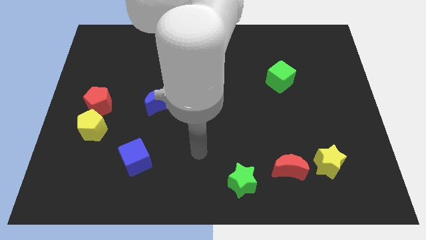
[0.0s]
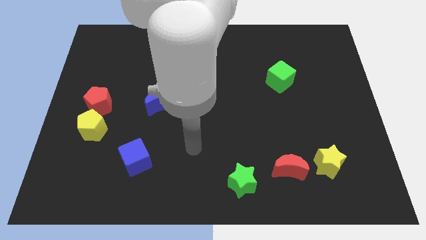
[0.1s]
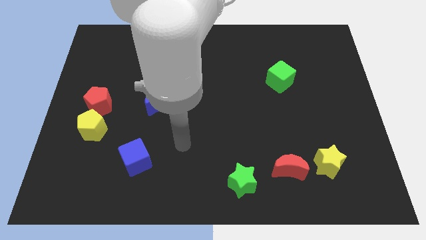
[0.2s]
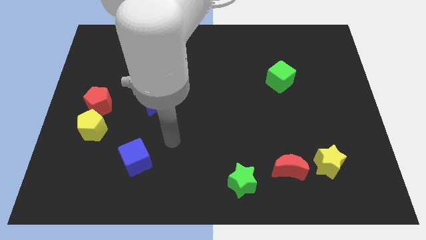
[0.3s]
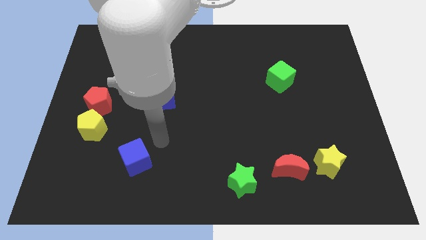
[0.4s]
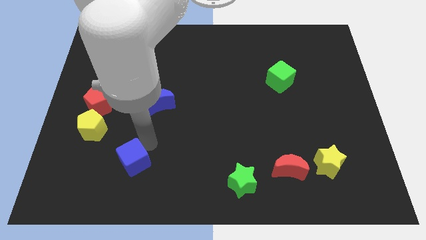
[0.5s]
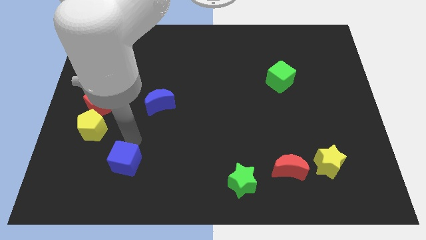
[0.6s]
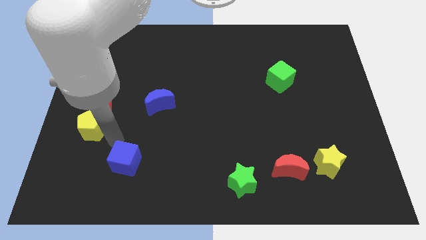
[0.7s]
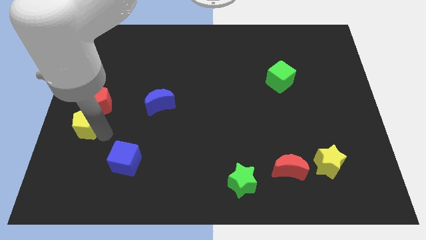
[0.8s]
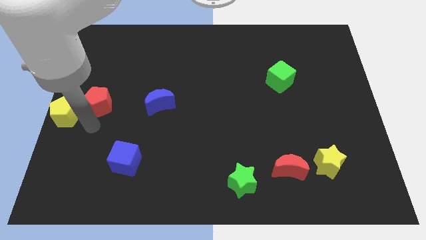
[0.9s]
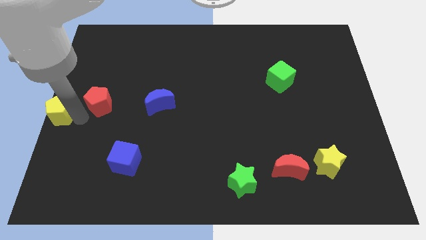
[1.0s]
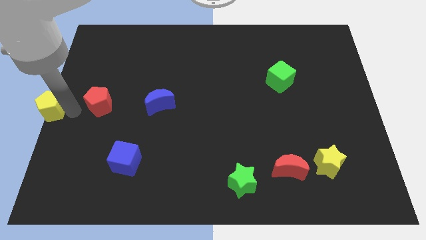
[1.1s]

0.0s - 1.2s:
move the red pentagon away from the yellow pentagon

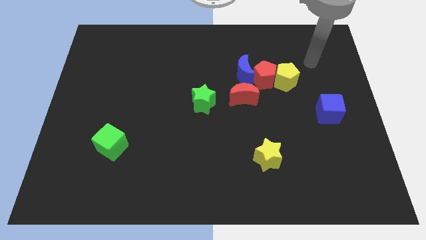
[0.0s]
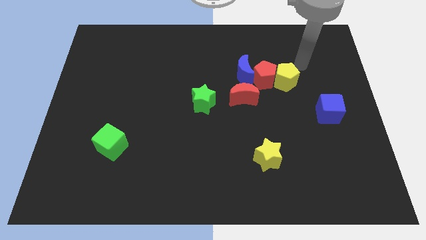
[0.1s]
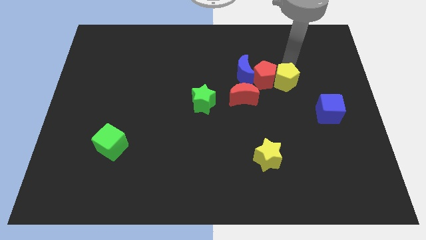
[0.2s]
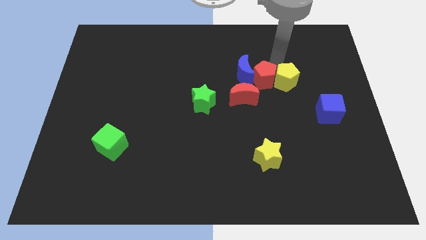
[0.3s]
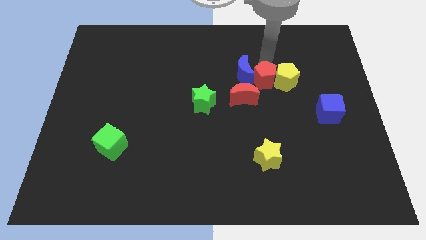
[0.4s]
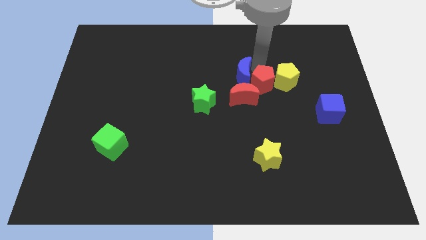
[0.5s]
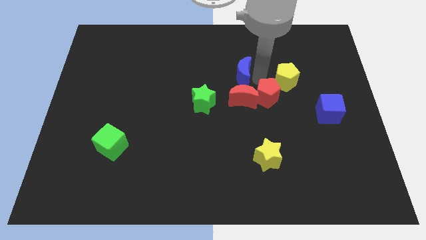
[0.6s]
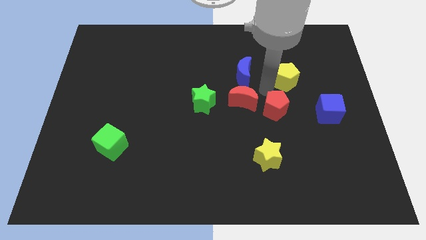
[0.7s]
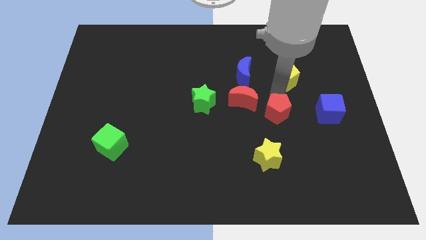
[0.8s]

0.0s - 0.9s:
separate the yellow pentagon from the red pentagon

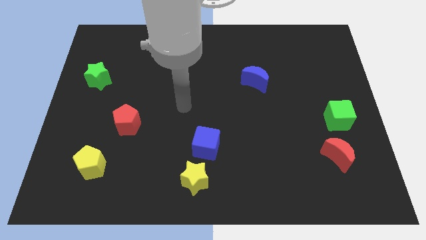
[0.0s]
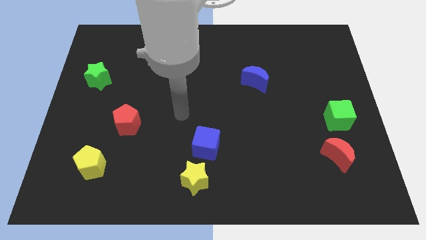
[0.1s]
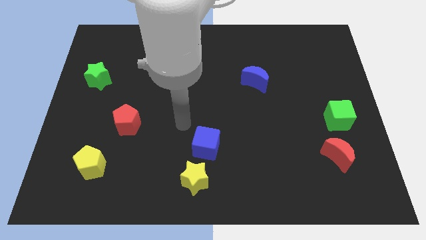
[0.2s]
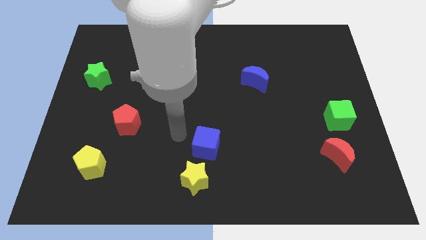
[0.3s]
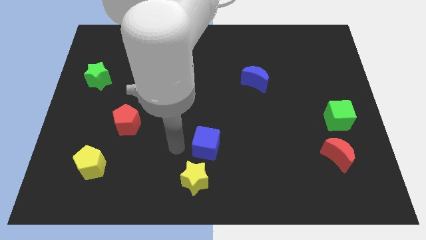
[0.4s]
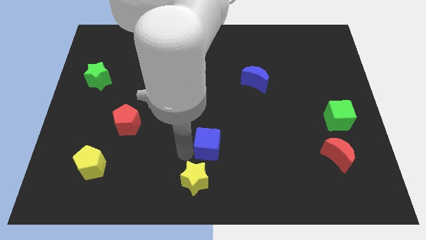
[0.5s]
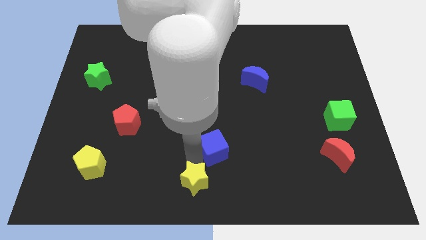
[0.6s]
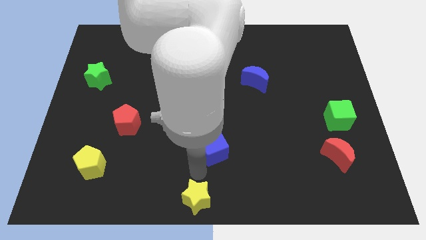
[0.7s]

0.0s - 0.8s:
pull the blue cube apart from the yellow star

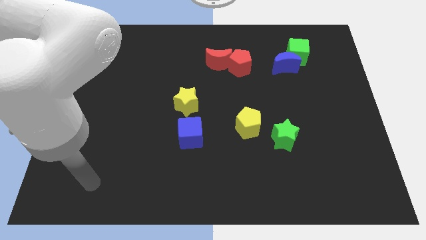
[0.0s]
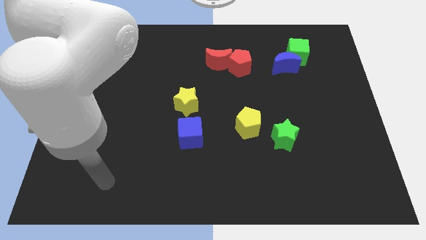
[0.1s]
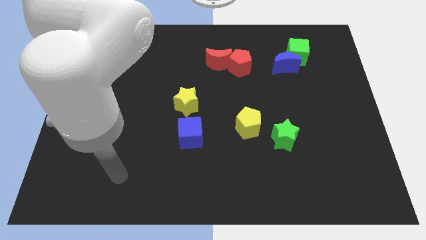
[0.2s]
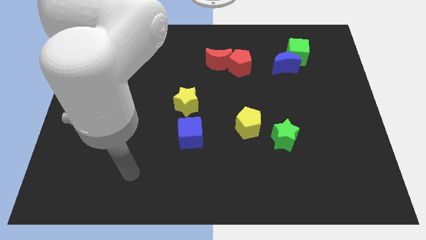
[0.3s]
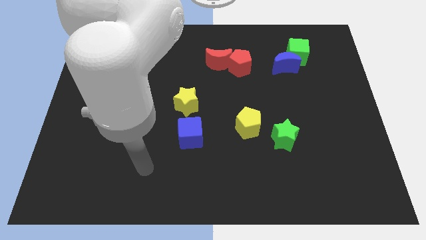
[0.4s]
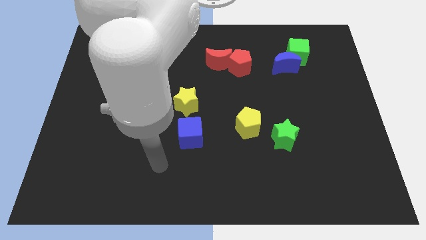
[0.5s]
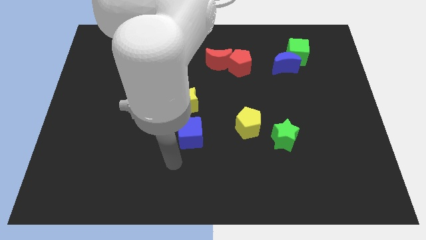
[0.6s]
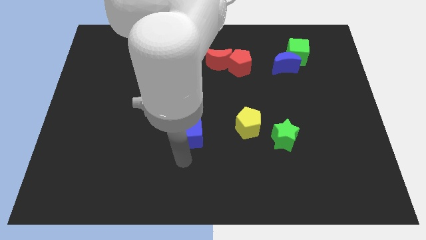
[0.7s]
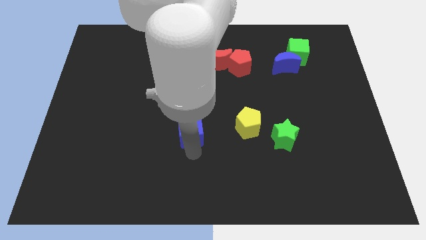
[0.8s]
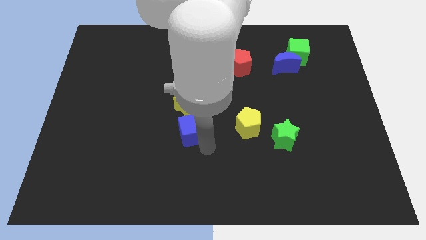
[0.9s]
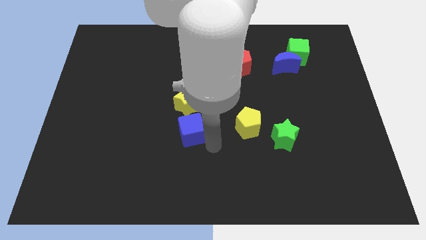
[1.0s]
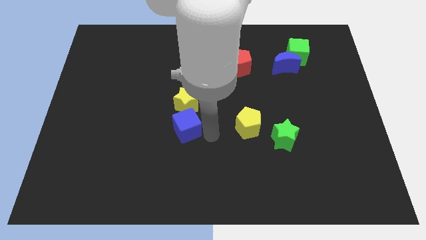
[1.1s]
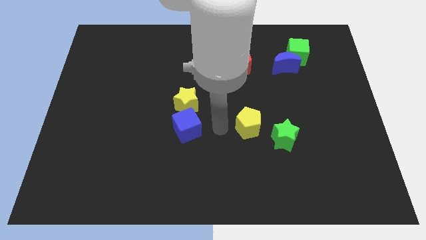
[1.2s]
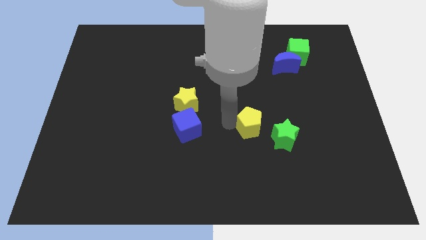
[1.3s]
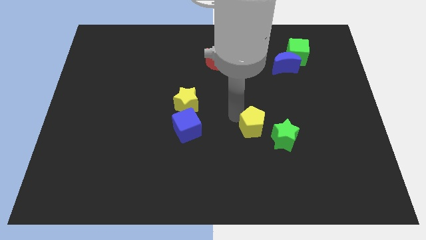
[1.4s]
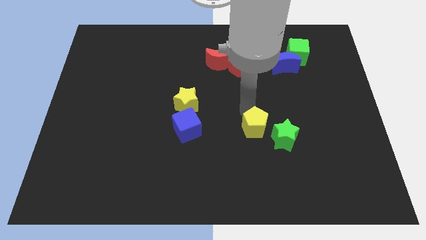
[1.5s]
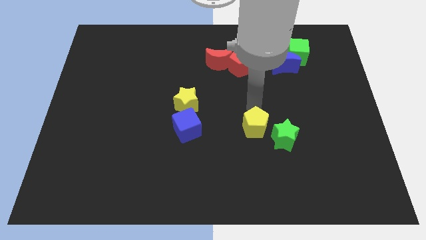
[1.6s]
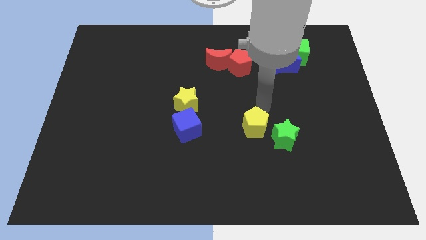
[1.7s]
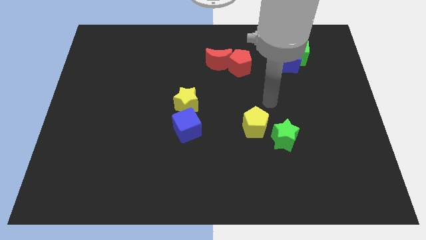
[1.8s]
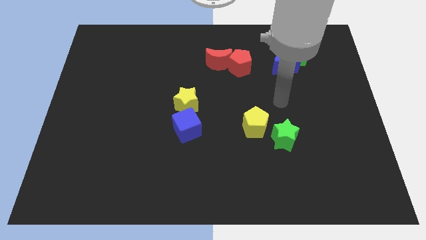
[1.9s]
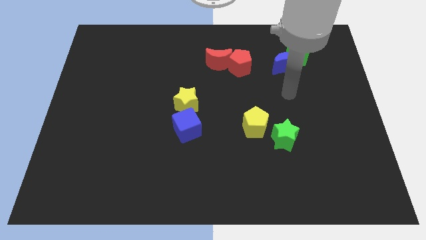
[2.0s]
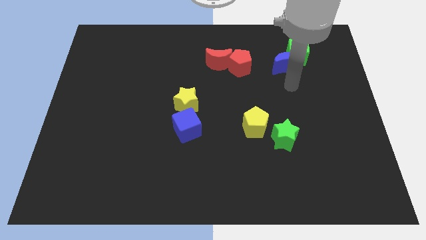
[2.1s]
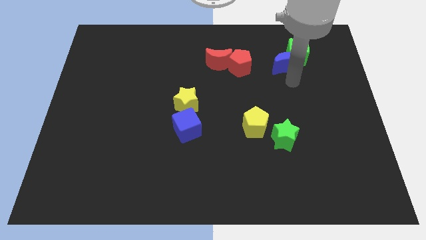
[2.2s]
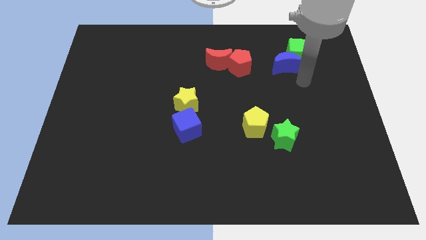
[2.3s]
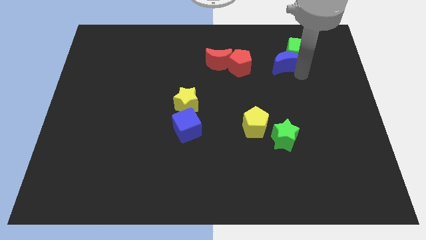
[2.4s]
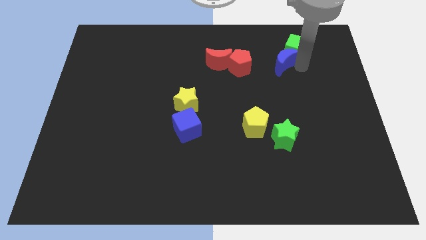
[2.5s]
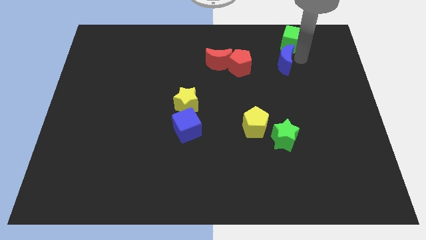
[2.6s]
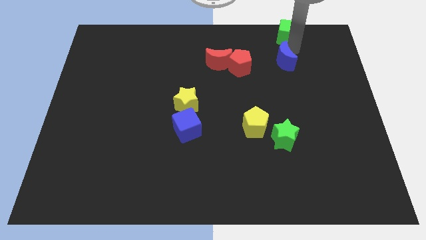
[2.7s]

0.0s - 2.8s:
pull the blue moon apart from the green cube

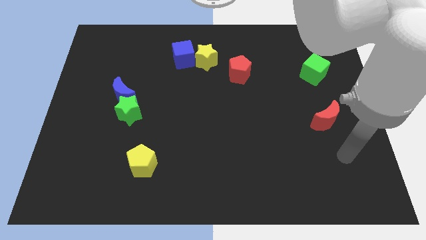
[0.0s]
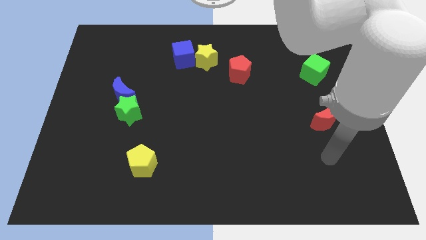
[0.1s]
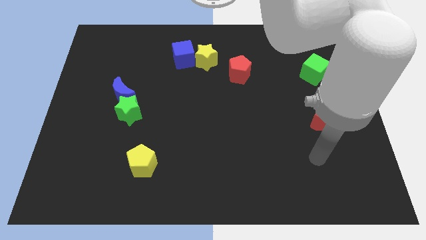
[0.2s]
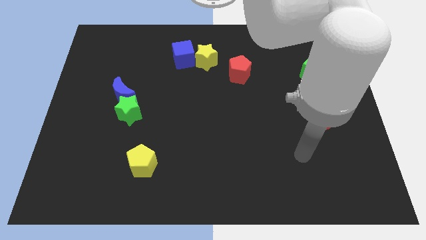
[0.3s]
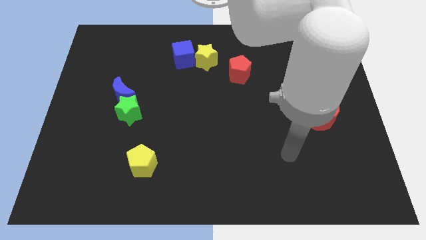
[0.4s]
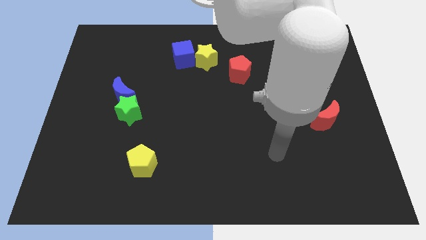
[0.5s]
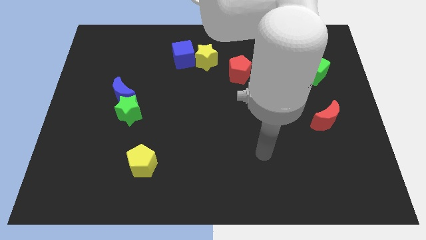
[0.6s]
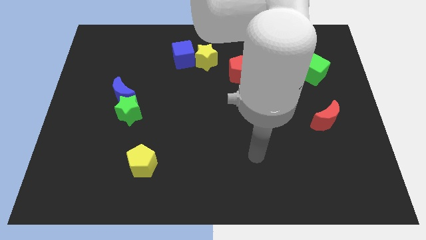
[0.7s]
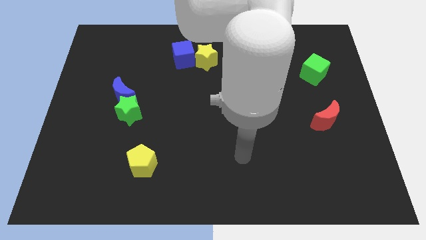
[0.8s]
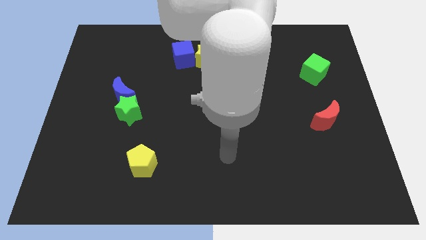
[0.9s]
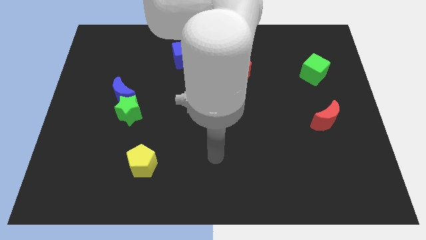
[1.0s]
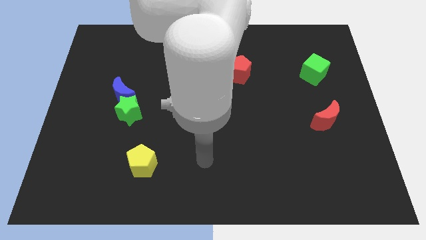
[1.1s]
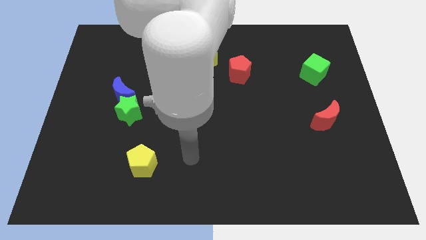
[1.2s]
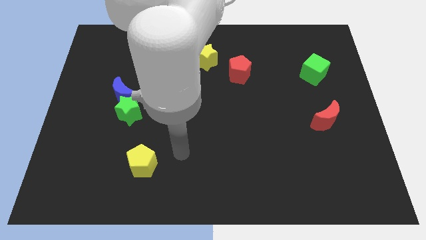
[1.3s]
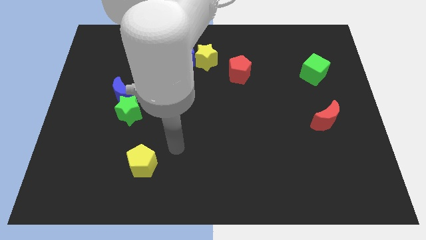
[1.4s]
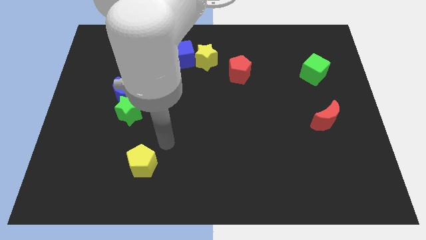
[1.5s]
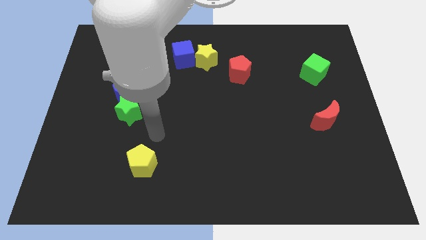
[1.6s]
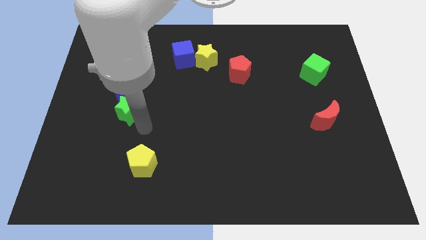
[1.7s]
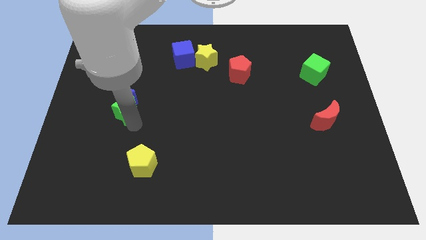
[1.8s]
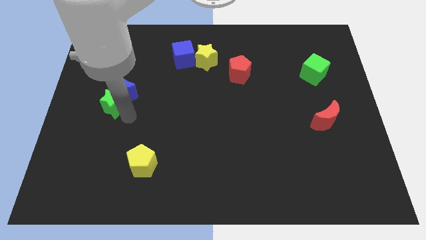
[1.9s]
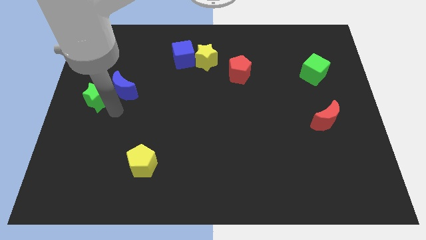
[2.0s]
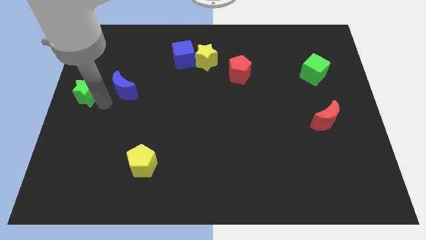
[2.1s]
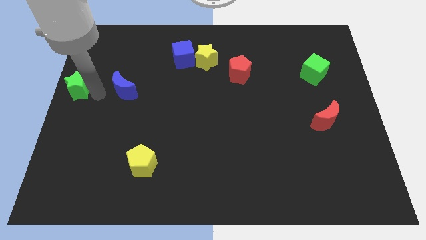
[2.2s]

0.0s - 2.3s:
pull the blue moon apart from the green star

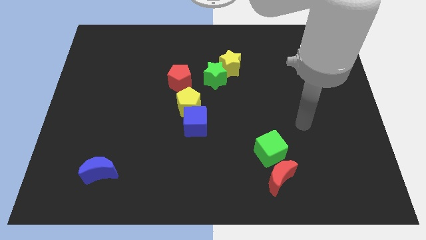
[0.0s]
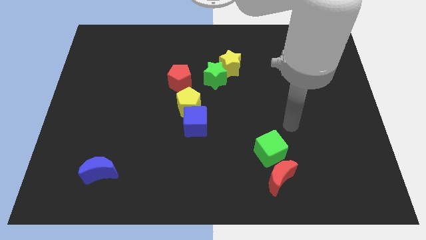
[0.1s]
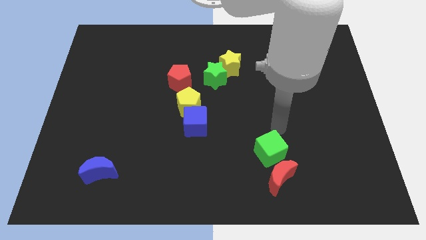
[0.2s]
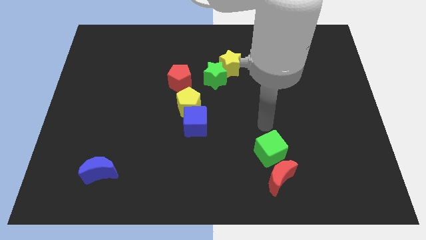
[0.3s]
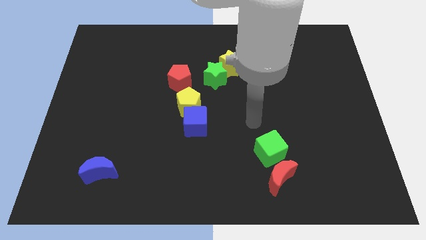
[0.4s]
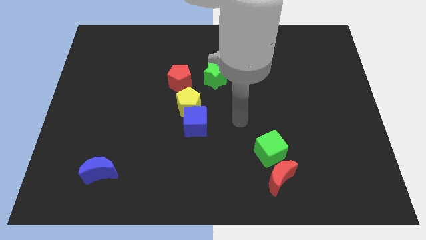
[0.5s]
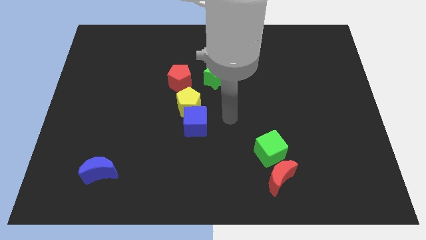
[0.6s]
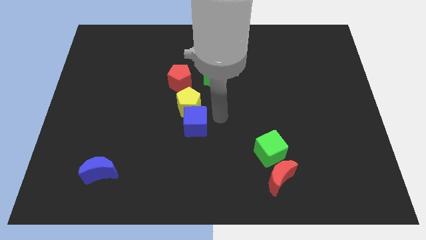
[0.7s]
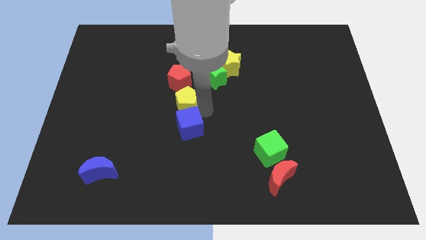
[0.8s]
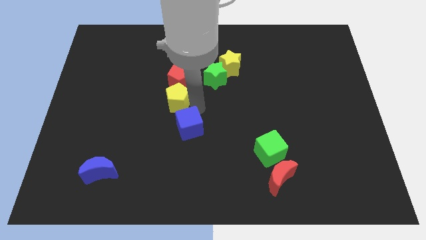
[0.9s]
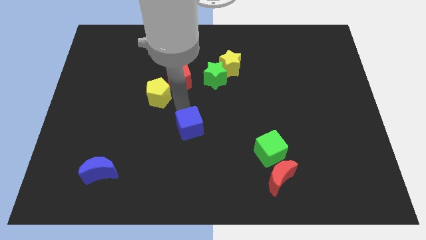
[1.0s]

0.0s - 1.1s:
separate the blue cube from the yellow pentagon

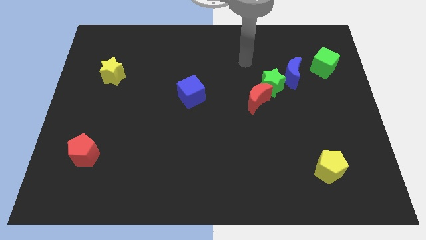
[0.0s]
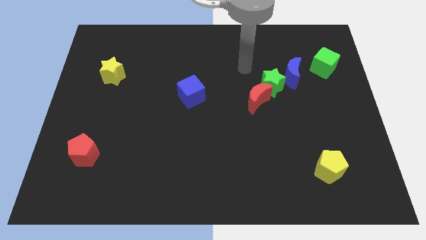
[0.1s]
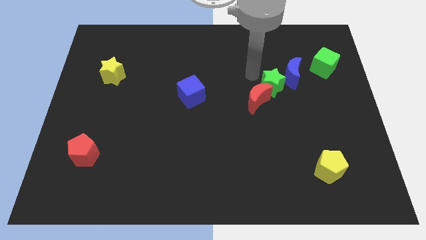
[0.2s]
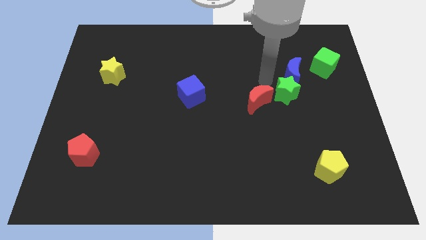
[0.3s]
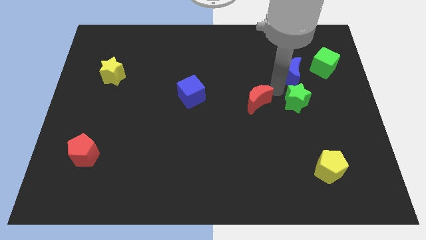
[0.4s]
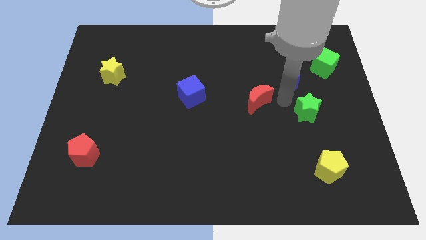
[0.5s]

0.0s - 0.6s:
pull the red moon apart from the green star
